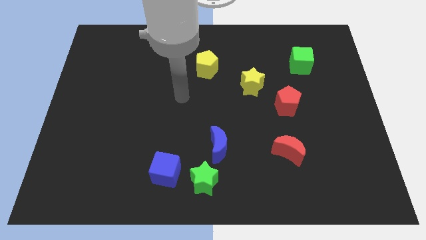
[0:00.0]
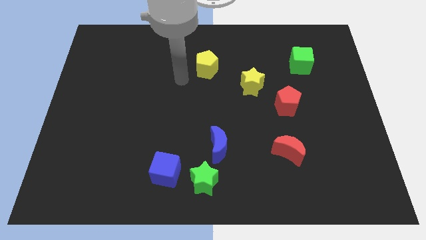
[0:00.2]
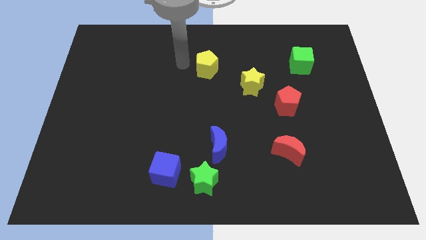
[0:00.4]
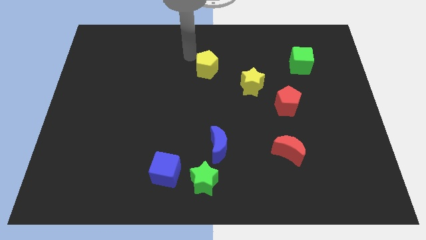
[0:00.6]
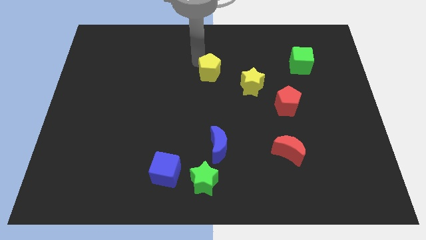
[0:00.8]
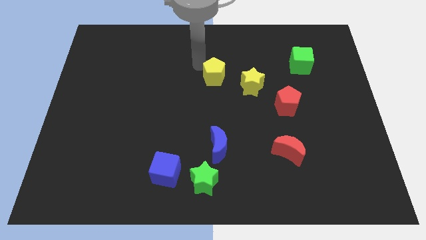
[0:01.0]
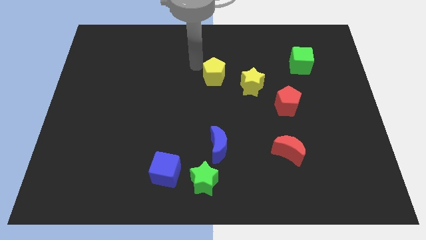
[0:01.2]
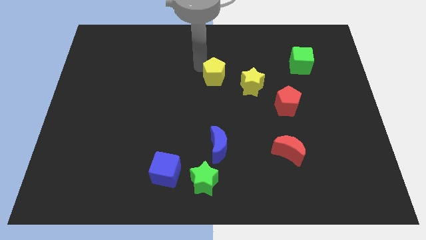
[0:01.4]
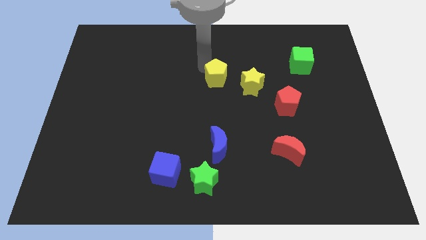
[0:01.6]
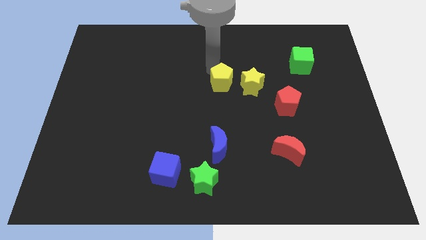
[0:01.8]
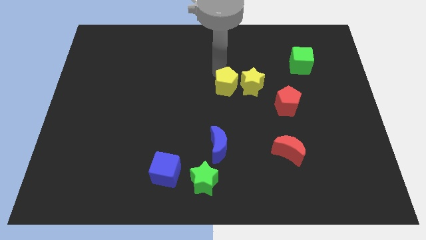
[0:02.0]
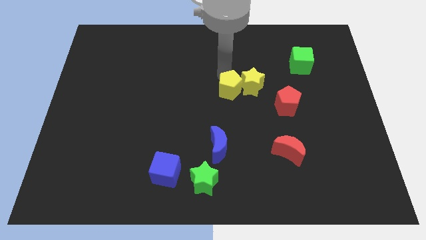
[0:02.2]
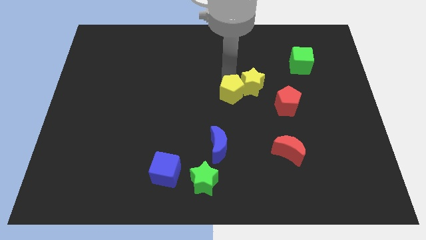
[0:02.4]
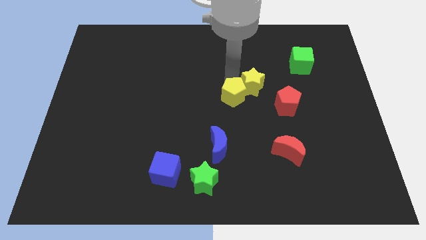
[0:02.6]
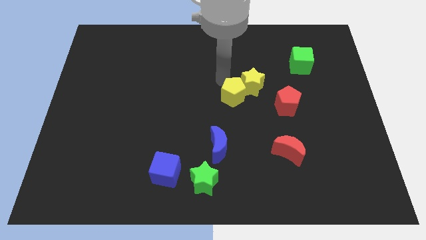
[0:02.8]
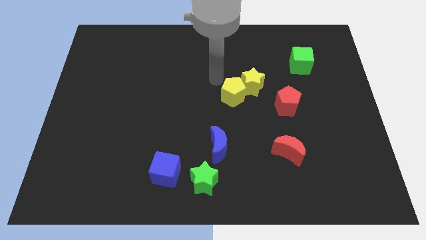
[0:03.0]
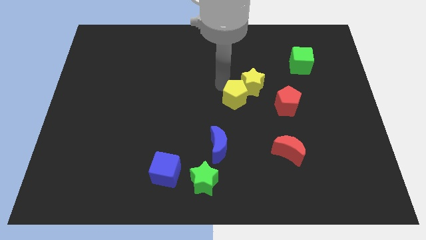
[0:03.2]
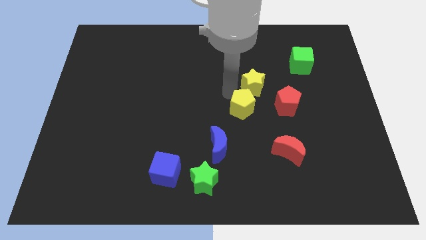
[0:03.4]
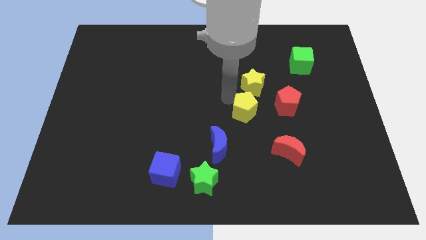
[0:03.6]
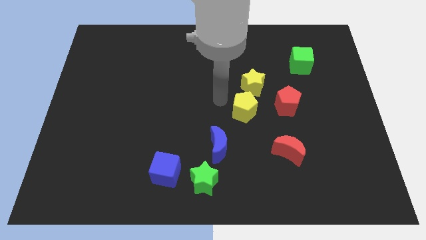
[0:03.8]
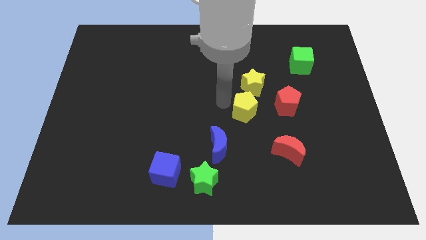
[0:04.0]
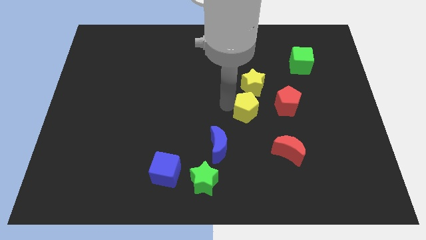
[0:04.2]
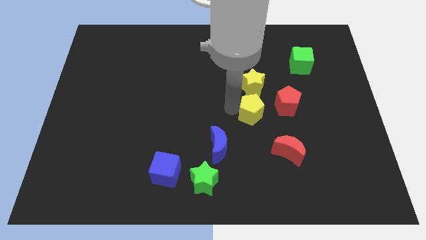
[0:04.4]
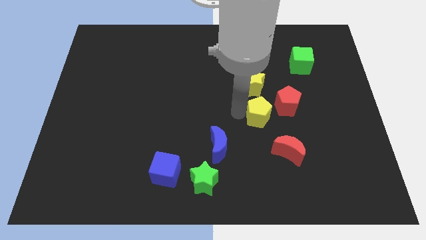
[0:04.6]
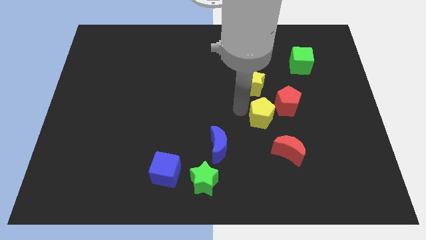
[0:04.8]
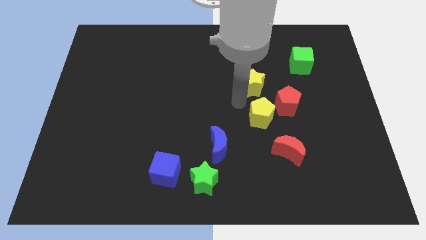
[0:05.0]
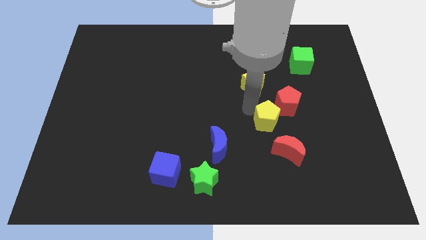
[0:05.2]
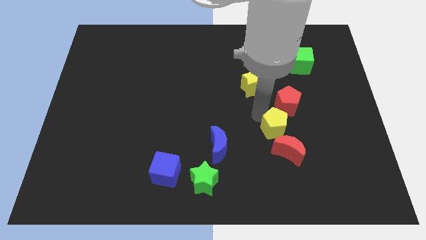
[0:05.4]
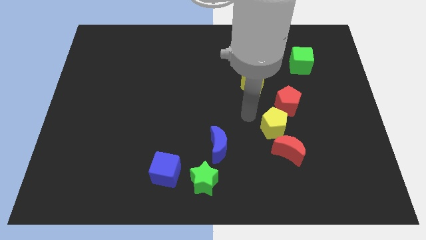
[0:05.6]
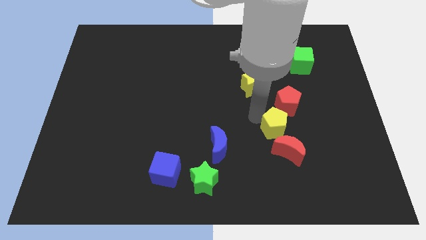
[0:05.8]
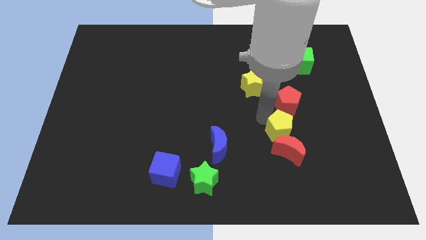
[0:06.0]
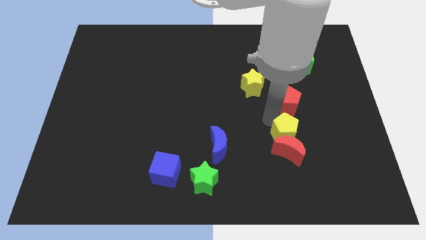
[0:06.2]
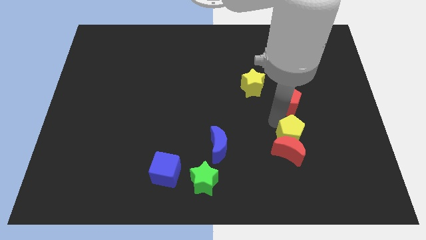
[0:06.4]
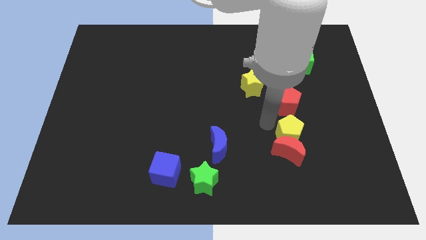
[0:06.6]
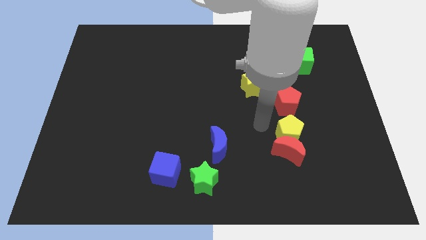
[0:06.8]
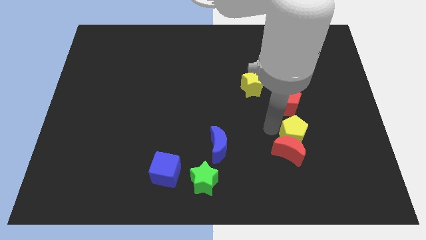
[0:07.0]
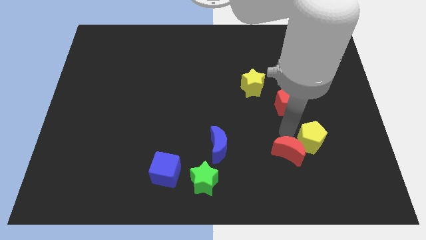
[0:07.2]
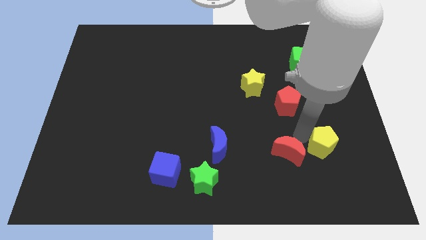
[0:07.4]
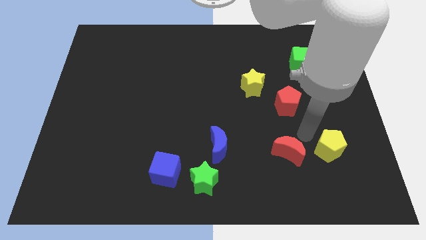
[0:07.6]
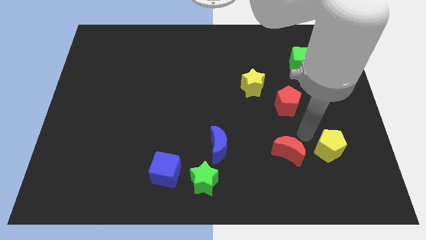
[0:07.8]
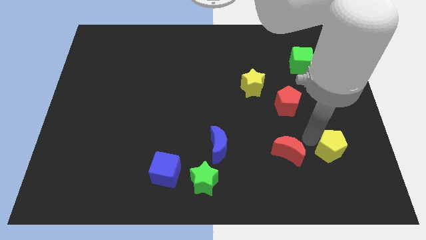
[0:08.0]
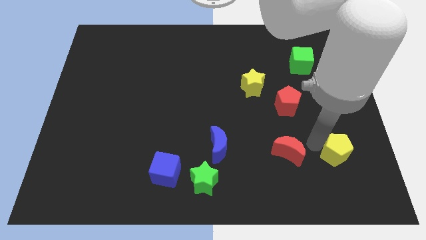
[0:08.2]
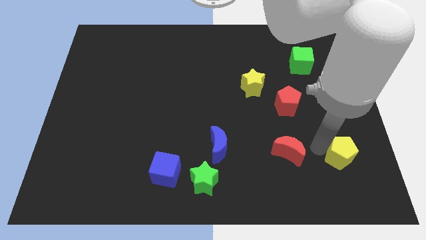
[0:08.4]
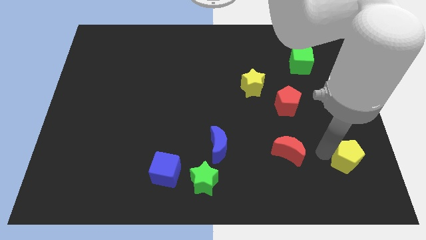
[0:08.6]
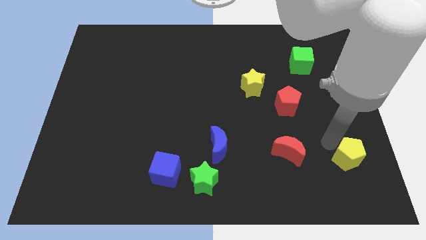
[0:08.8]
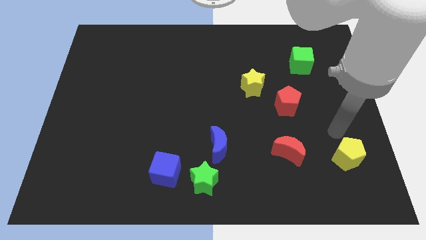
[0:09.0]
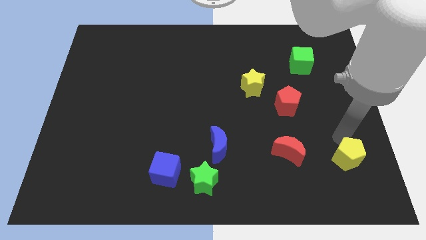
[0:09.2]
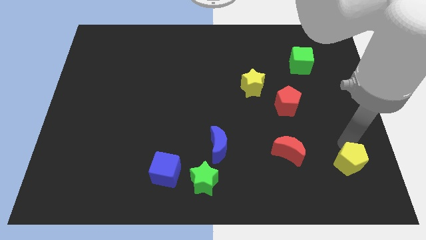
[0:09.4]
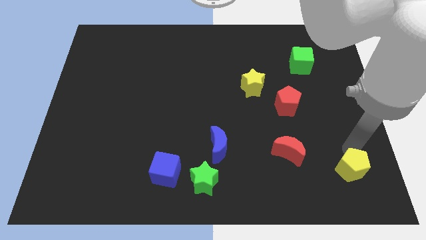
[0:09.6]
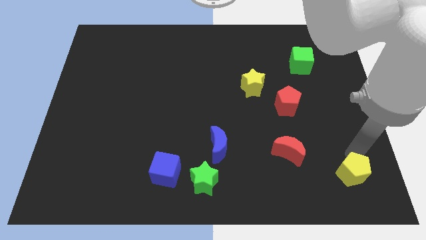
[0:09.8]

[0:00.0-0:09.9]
push the yellow pentagon to the bottom right corner

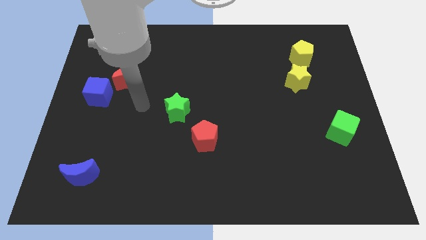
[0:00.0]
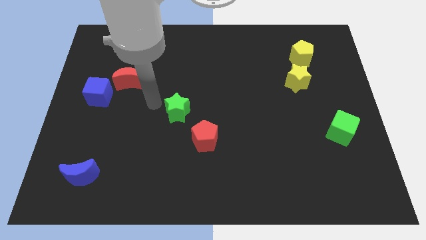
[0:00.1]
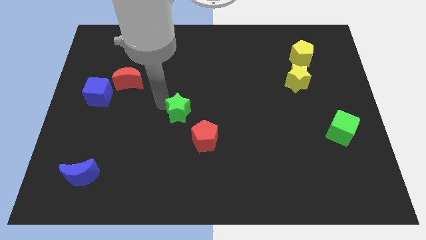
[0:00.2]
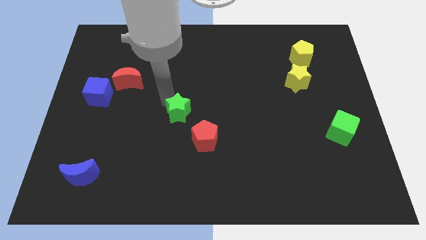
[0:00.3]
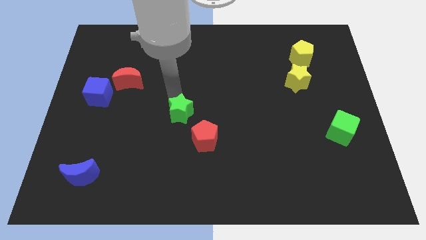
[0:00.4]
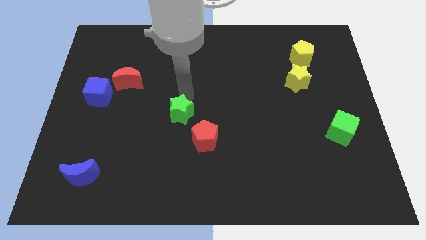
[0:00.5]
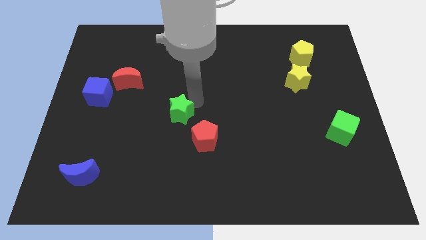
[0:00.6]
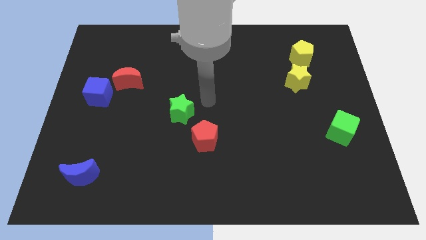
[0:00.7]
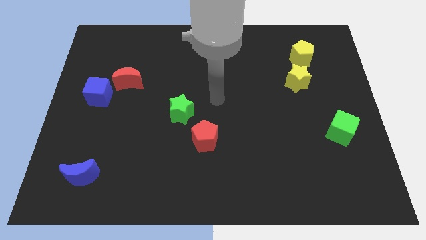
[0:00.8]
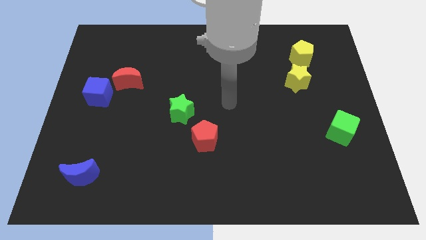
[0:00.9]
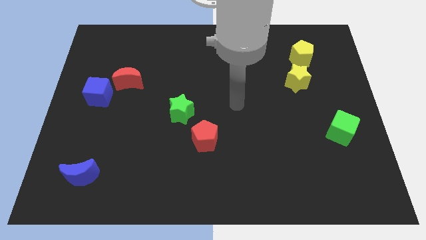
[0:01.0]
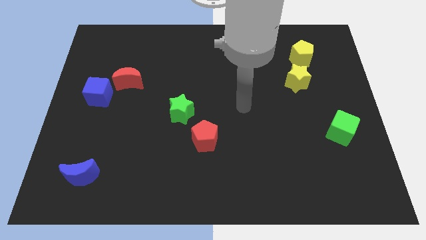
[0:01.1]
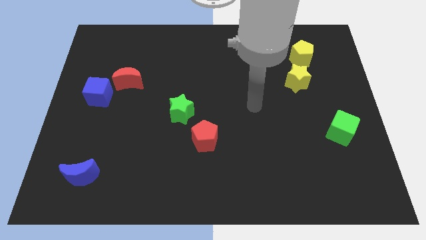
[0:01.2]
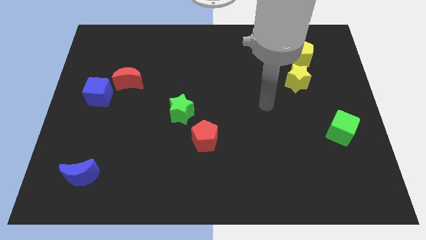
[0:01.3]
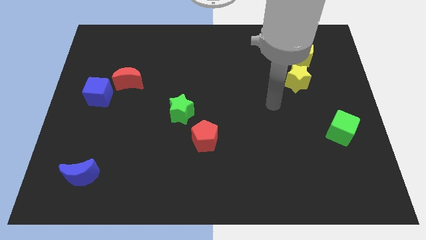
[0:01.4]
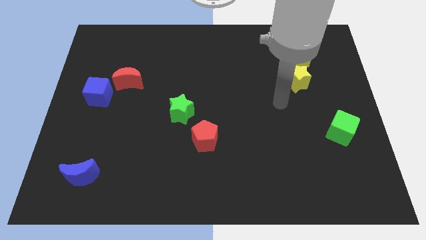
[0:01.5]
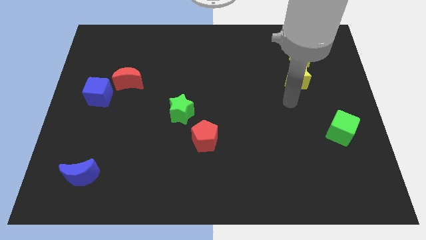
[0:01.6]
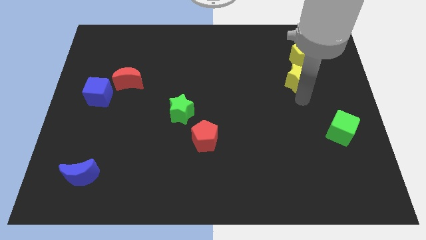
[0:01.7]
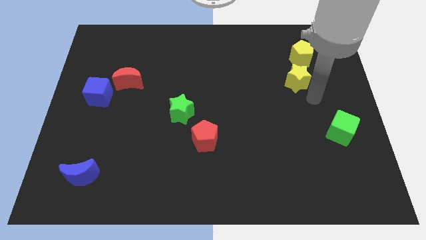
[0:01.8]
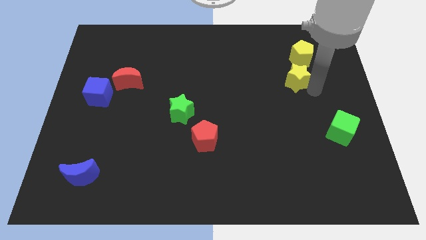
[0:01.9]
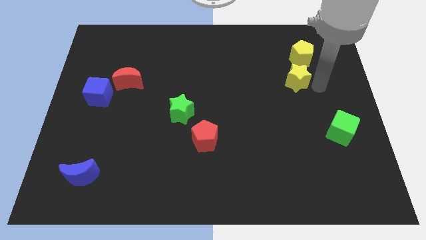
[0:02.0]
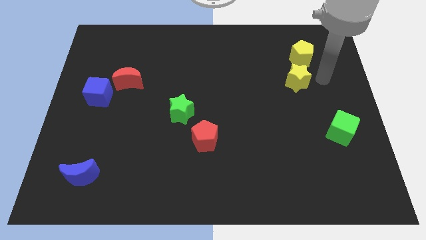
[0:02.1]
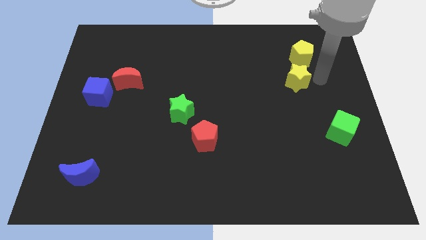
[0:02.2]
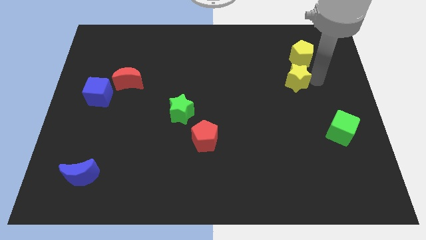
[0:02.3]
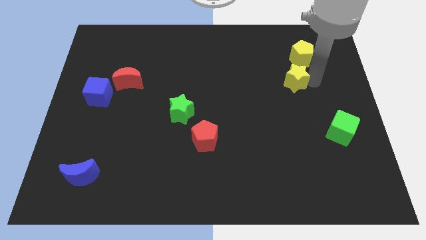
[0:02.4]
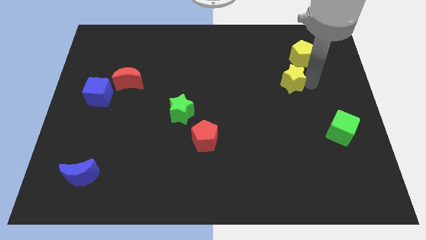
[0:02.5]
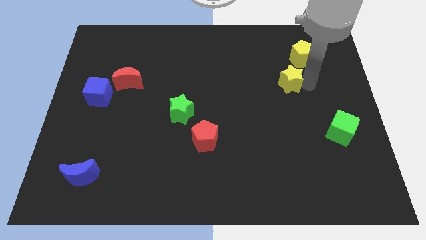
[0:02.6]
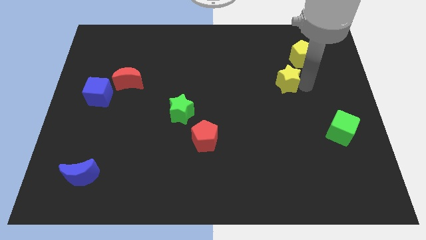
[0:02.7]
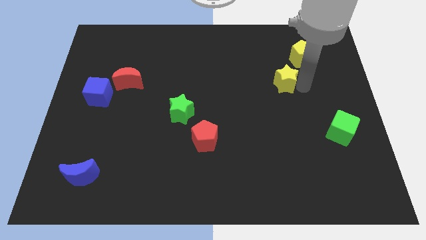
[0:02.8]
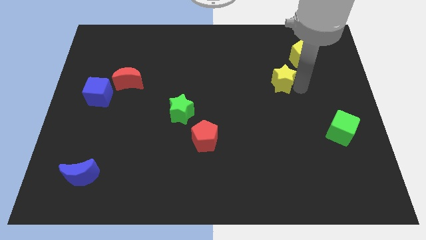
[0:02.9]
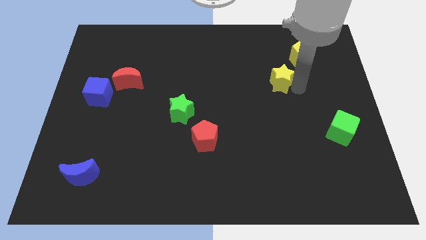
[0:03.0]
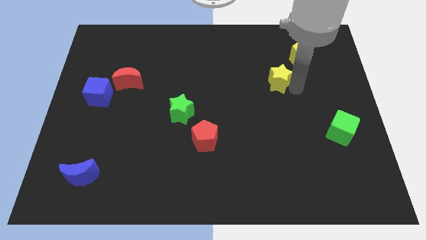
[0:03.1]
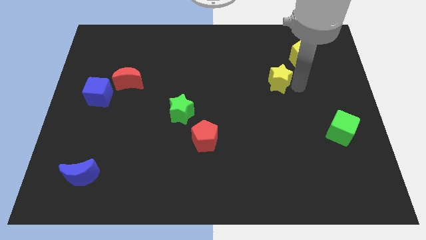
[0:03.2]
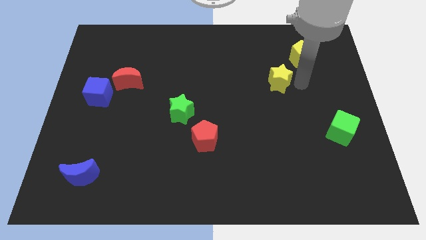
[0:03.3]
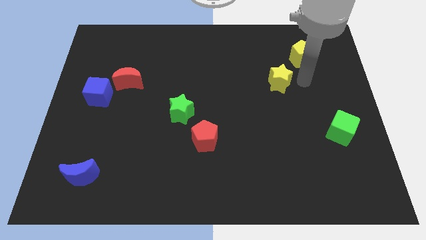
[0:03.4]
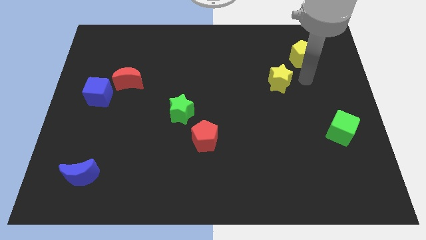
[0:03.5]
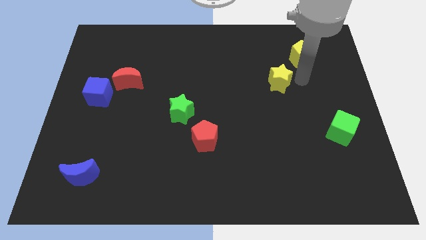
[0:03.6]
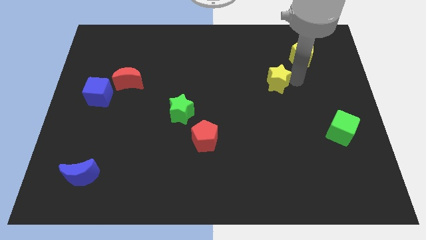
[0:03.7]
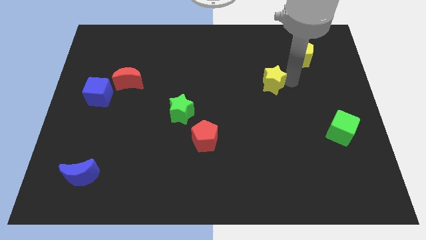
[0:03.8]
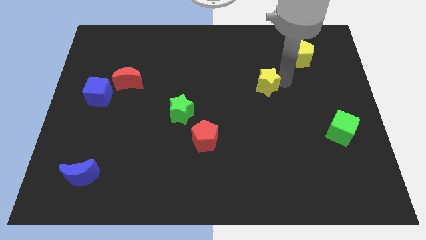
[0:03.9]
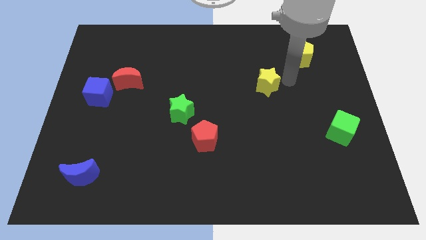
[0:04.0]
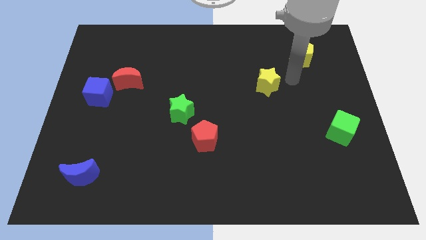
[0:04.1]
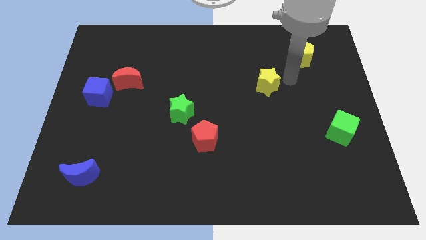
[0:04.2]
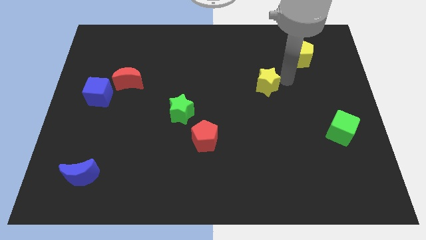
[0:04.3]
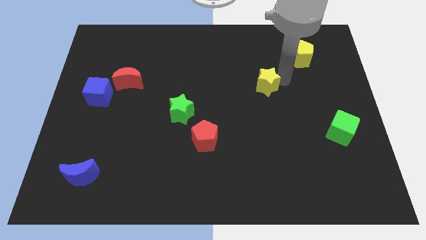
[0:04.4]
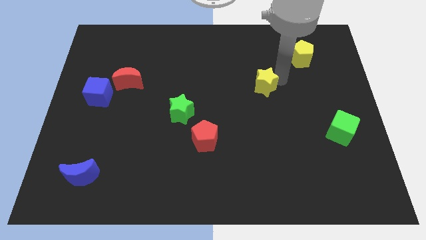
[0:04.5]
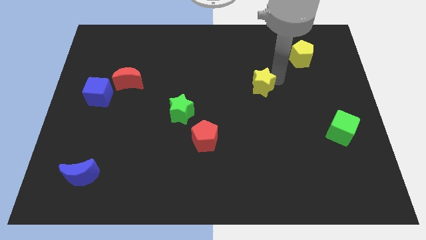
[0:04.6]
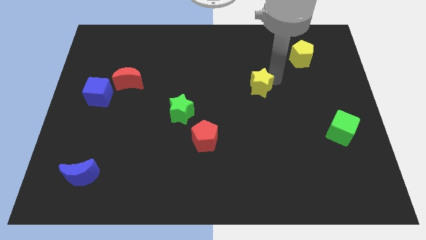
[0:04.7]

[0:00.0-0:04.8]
push the yellow star to the middle of the board
